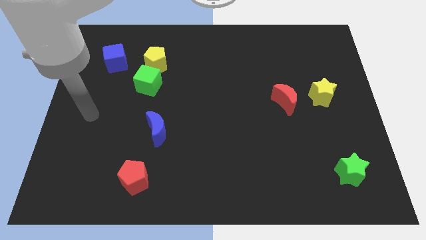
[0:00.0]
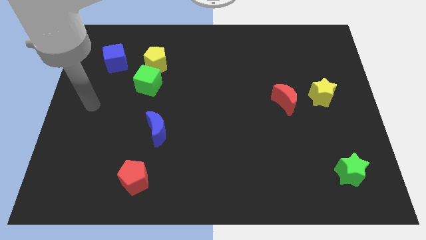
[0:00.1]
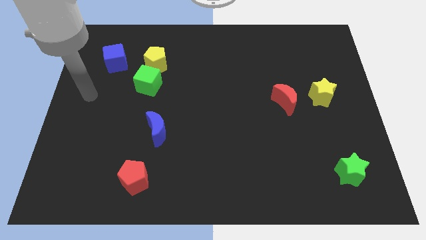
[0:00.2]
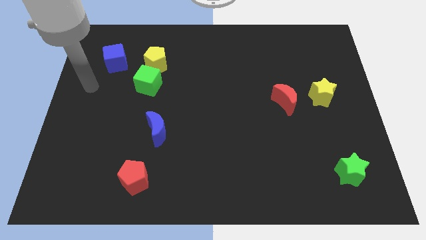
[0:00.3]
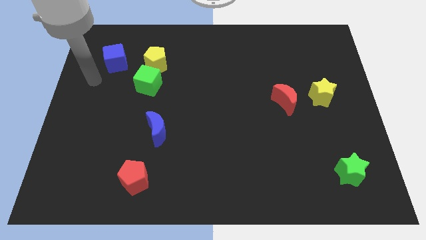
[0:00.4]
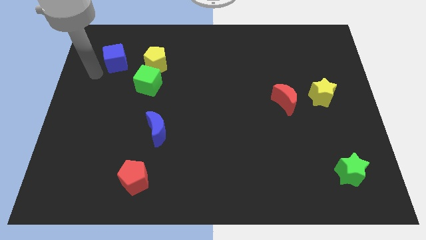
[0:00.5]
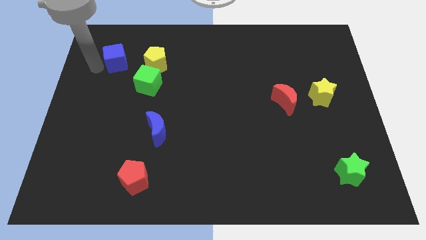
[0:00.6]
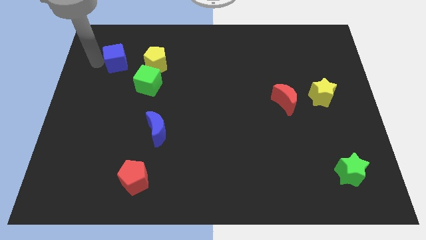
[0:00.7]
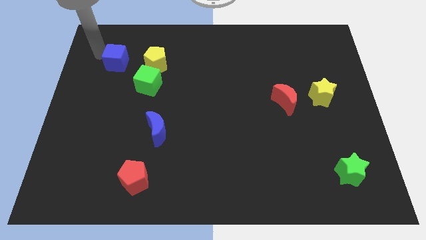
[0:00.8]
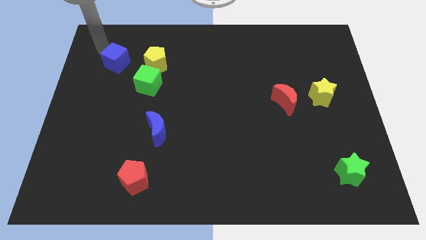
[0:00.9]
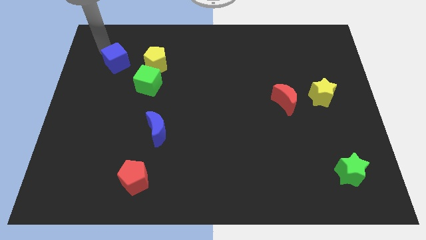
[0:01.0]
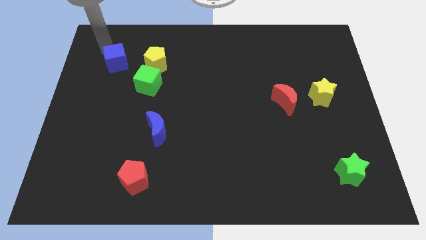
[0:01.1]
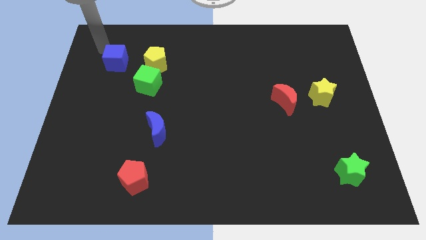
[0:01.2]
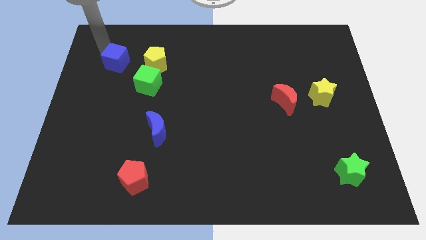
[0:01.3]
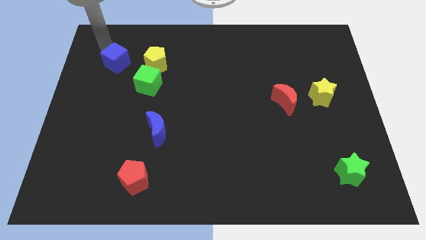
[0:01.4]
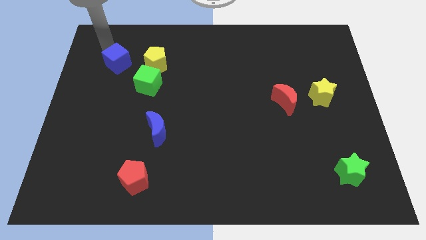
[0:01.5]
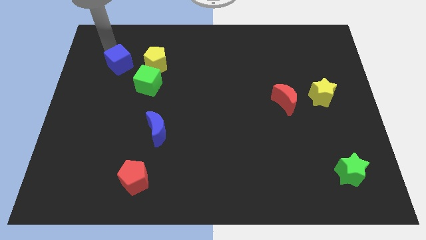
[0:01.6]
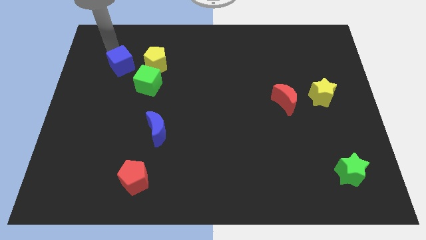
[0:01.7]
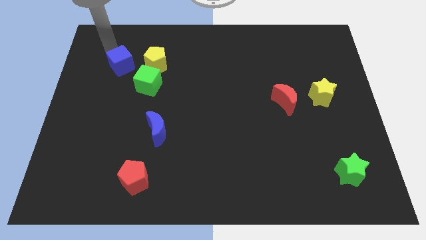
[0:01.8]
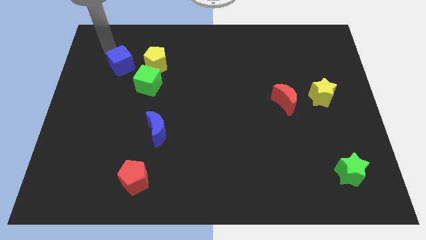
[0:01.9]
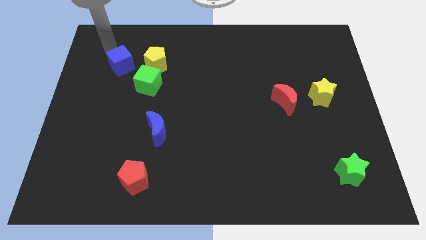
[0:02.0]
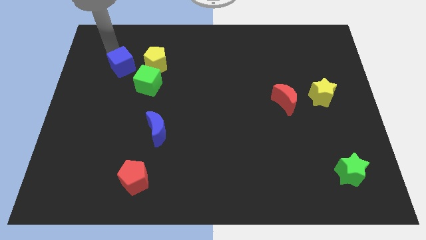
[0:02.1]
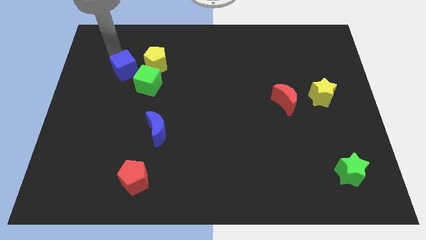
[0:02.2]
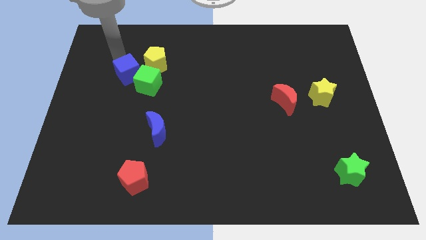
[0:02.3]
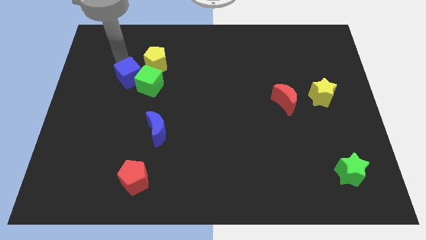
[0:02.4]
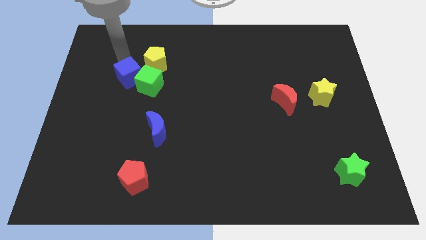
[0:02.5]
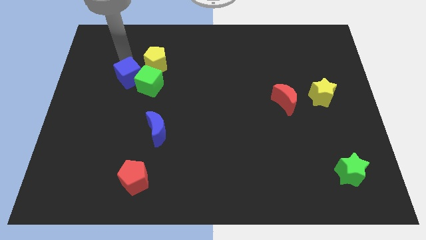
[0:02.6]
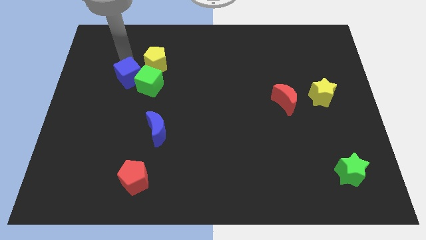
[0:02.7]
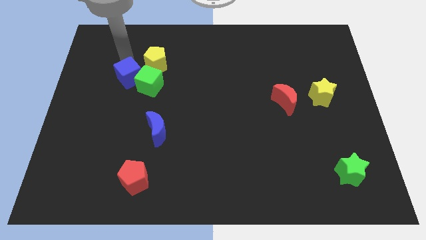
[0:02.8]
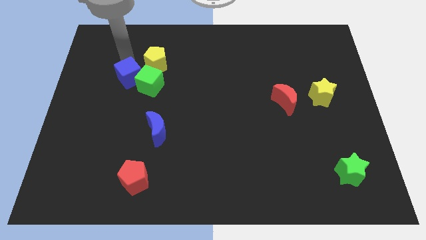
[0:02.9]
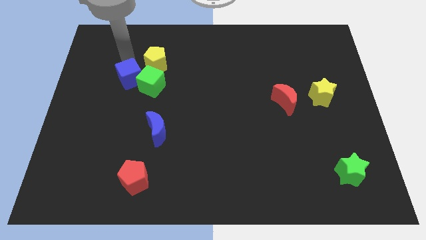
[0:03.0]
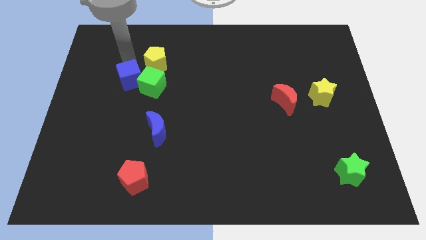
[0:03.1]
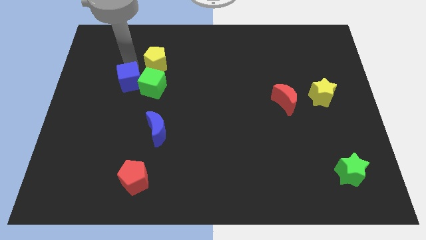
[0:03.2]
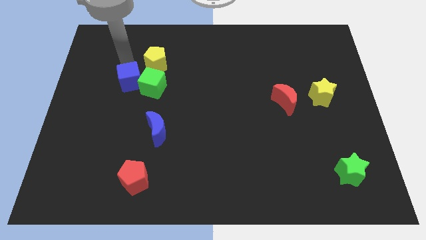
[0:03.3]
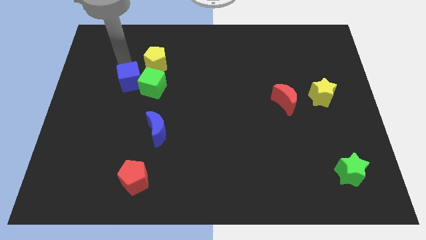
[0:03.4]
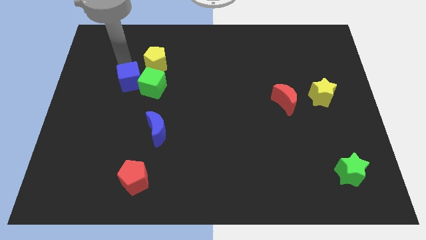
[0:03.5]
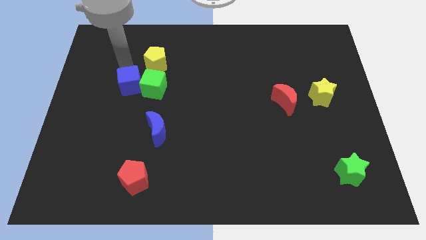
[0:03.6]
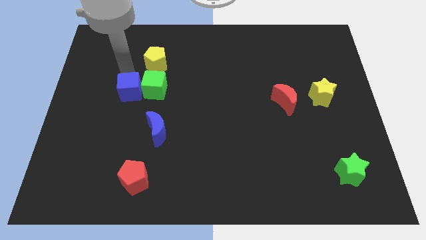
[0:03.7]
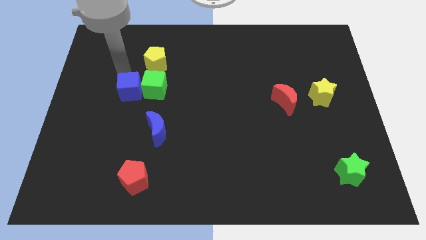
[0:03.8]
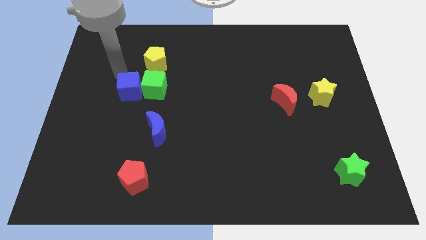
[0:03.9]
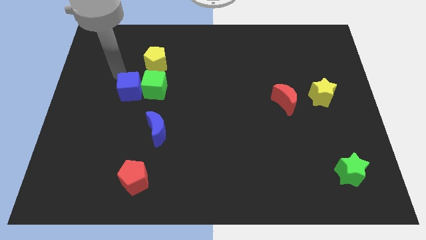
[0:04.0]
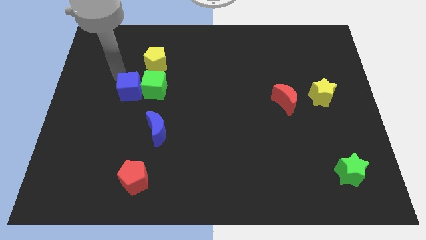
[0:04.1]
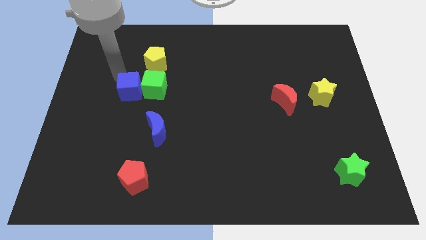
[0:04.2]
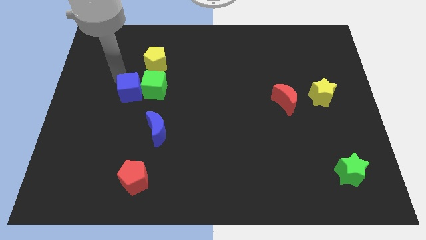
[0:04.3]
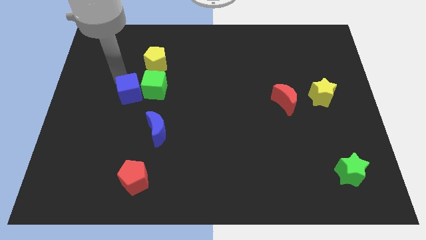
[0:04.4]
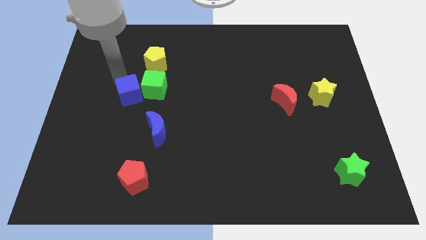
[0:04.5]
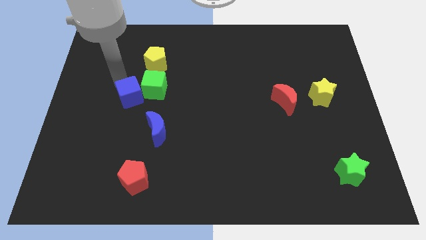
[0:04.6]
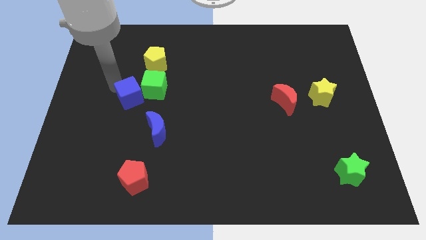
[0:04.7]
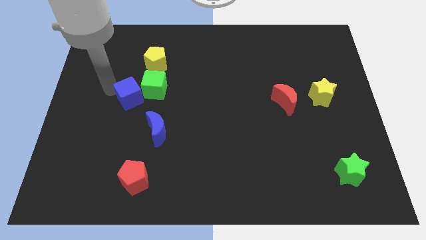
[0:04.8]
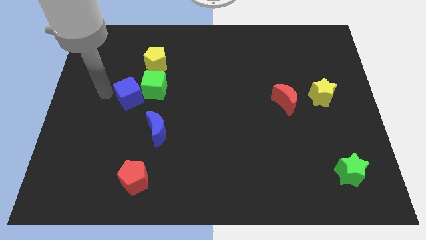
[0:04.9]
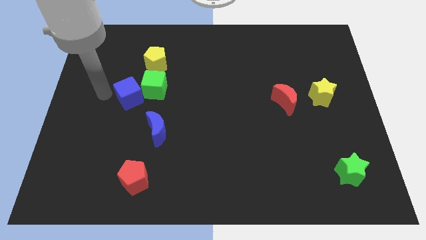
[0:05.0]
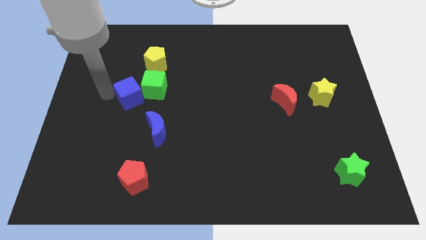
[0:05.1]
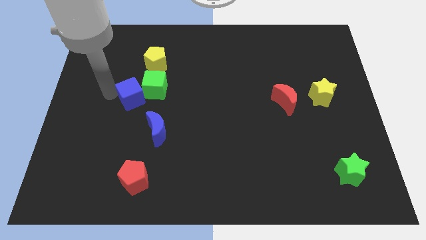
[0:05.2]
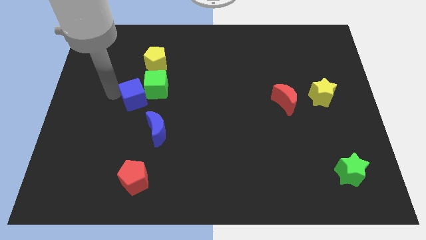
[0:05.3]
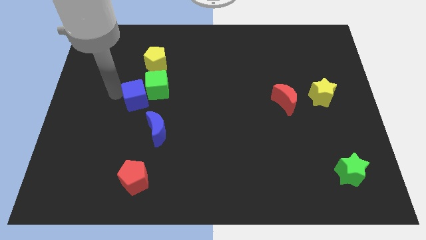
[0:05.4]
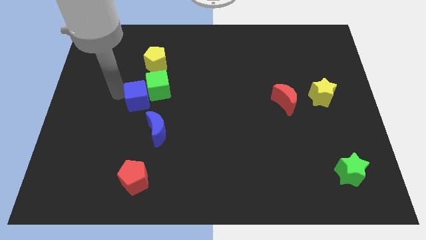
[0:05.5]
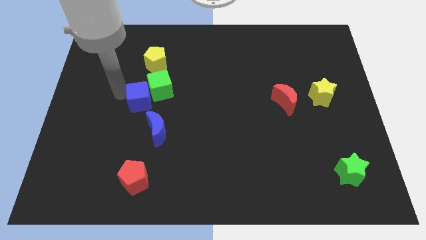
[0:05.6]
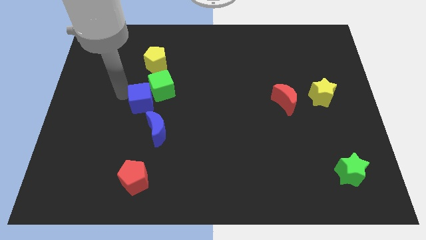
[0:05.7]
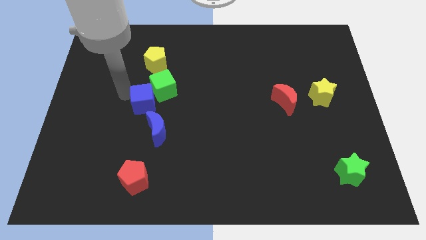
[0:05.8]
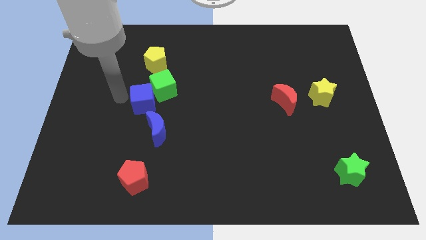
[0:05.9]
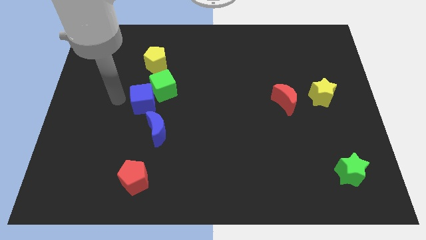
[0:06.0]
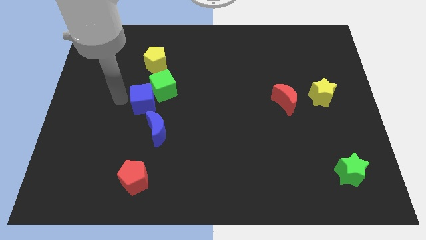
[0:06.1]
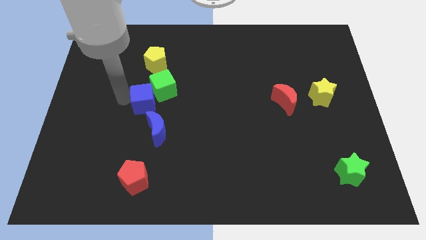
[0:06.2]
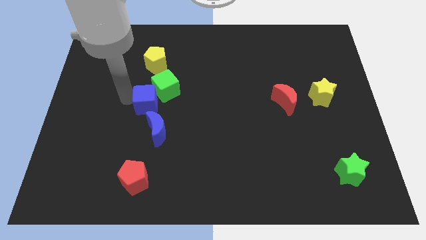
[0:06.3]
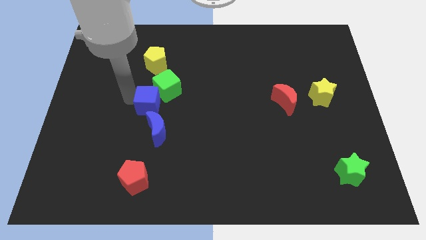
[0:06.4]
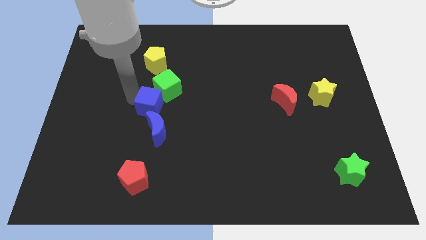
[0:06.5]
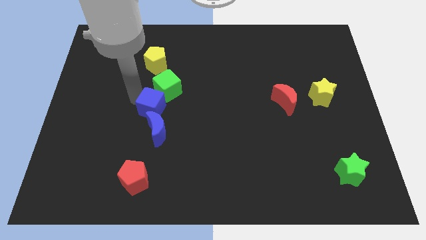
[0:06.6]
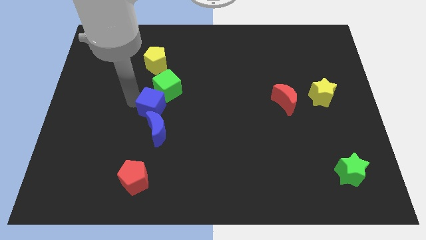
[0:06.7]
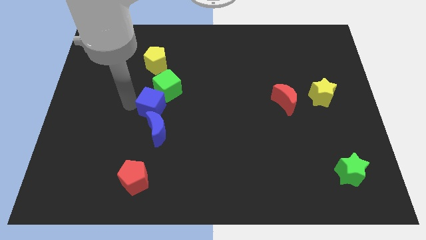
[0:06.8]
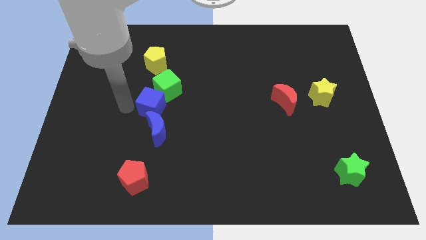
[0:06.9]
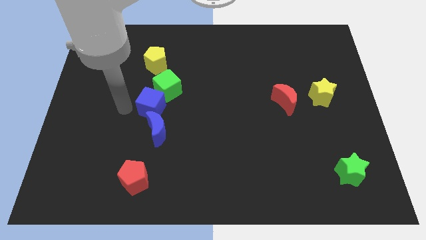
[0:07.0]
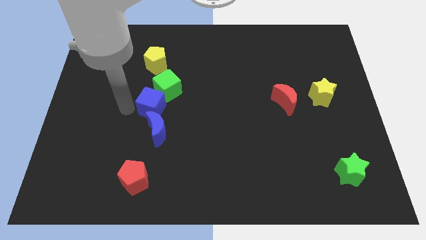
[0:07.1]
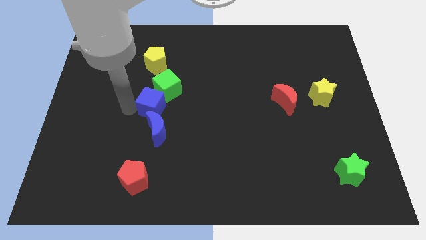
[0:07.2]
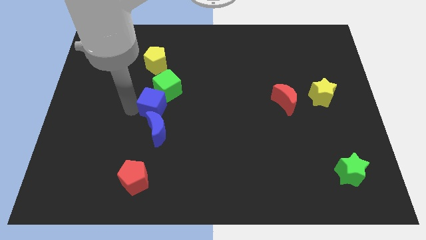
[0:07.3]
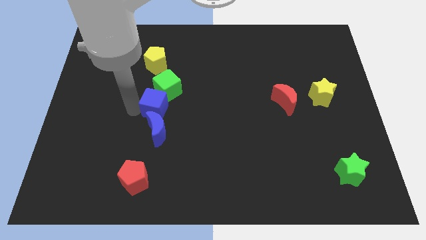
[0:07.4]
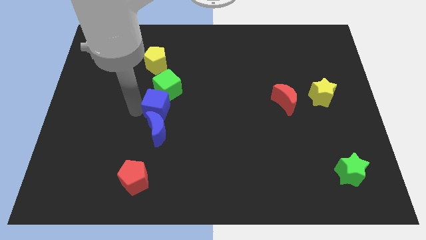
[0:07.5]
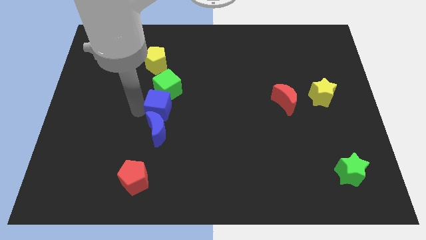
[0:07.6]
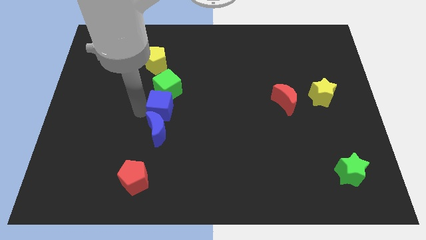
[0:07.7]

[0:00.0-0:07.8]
put the blue cube to the middle
